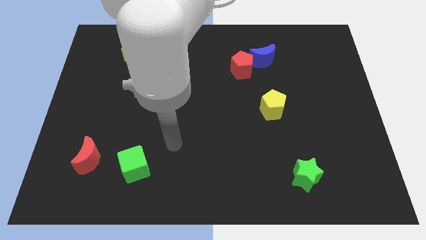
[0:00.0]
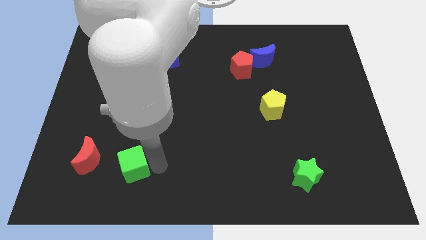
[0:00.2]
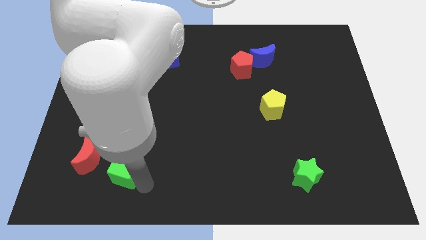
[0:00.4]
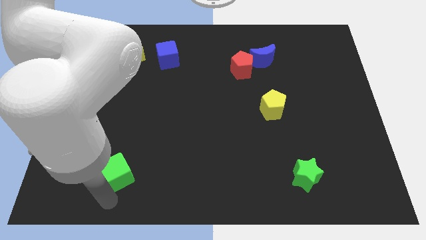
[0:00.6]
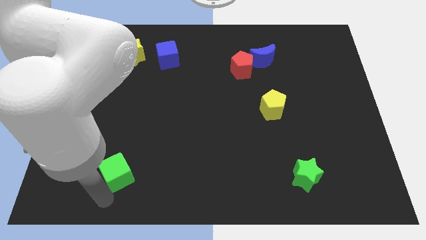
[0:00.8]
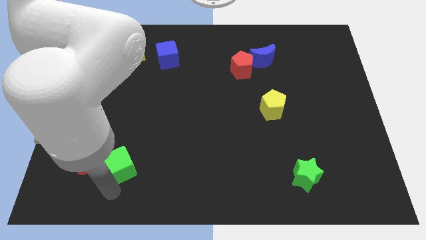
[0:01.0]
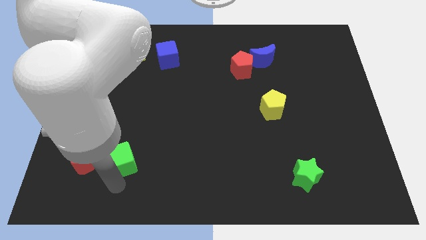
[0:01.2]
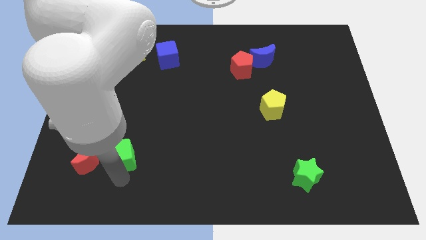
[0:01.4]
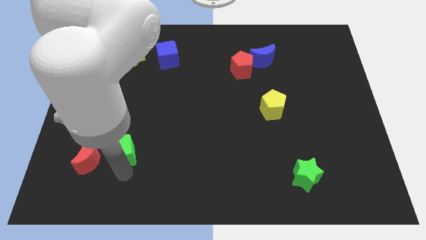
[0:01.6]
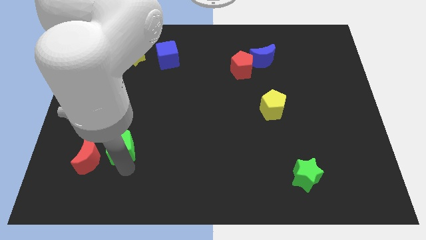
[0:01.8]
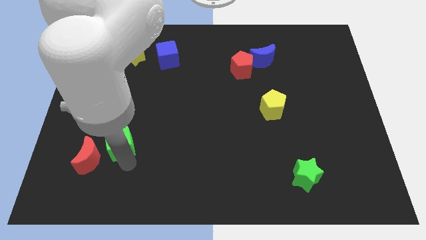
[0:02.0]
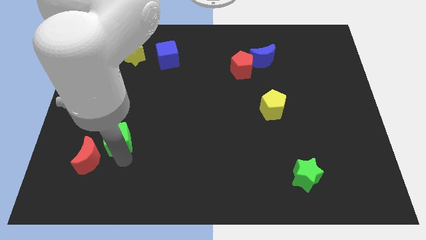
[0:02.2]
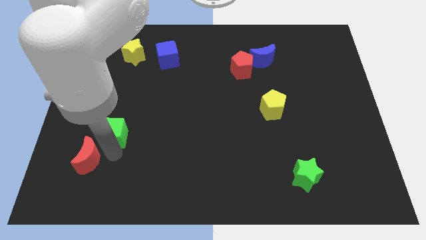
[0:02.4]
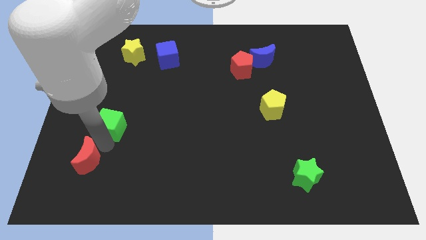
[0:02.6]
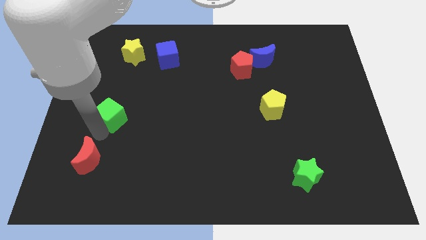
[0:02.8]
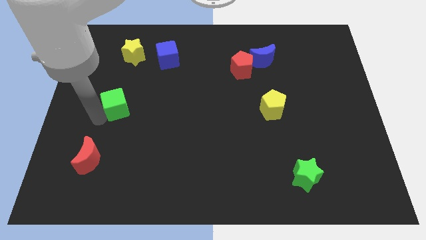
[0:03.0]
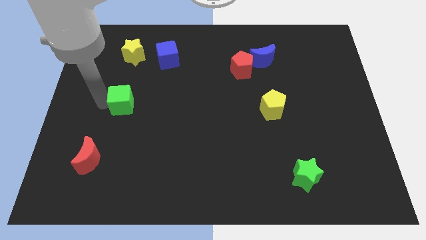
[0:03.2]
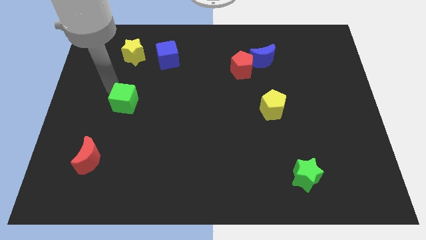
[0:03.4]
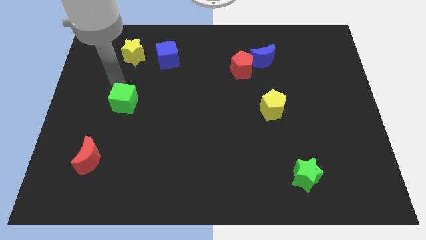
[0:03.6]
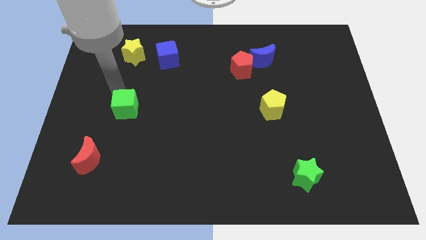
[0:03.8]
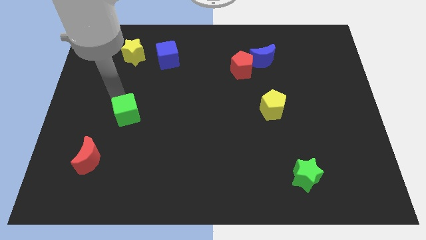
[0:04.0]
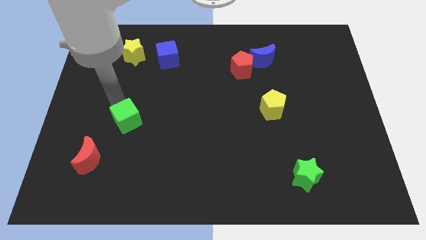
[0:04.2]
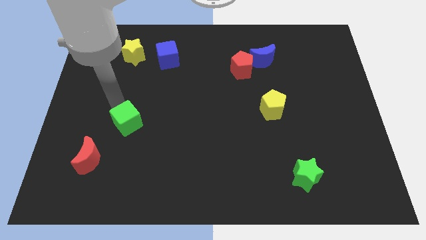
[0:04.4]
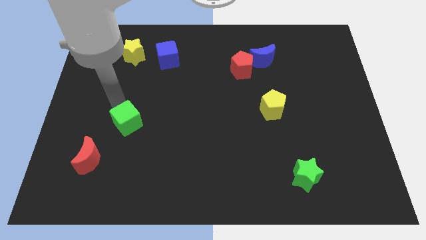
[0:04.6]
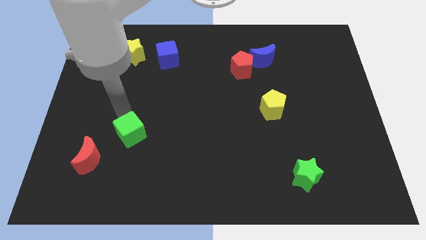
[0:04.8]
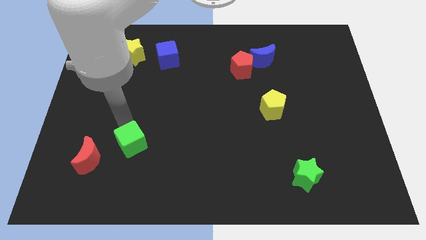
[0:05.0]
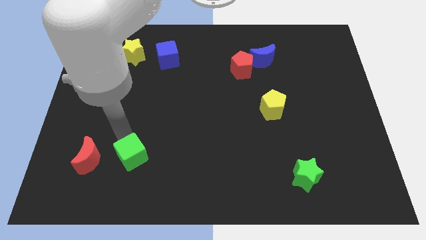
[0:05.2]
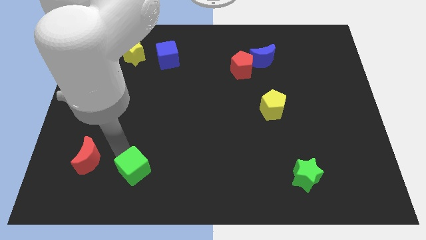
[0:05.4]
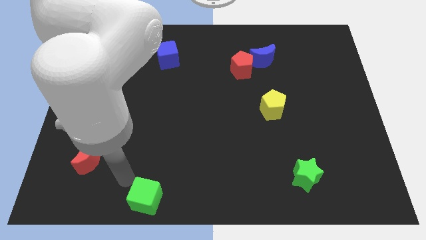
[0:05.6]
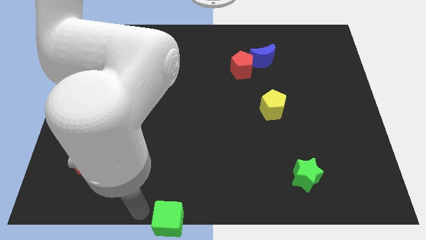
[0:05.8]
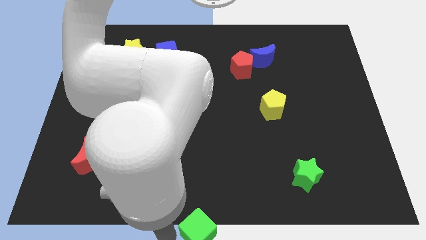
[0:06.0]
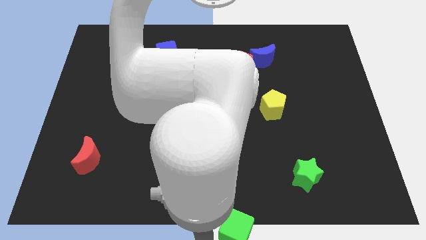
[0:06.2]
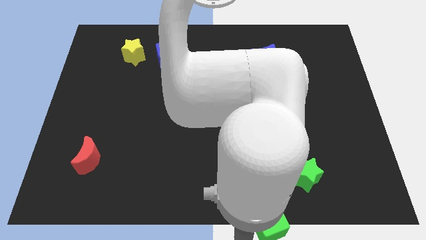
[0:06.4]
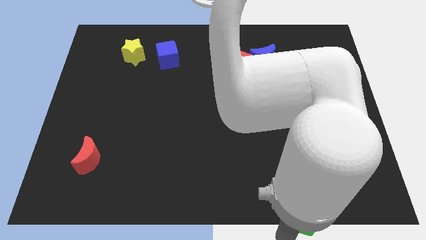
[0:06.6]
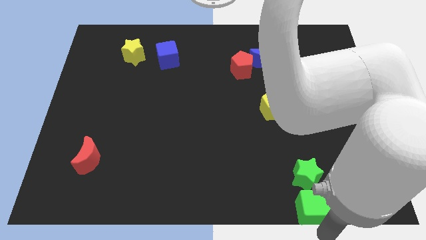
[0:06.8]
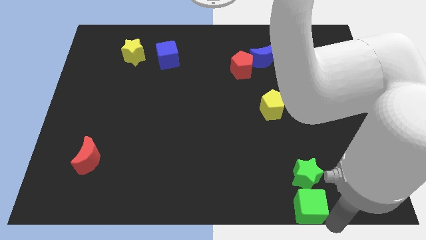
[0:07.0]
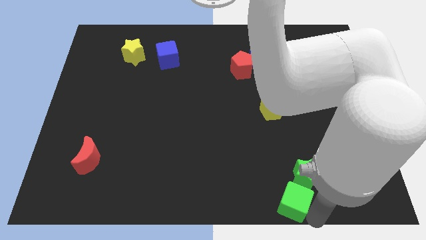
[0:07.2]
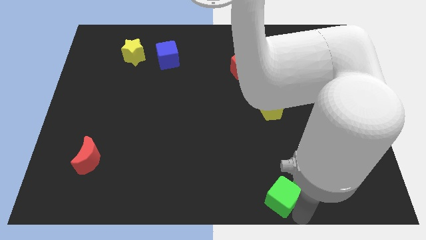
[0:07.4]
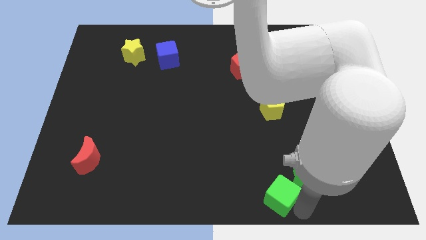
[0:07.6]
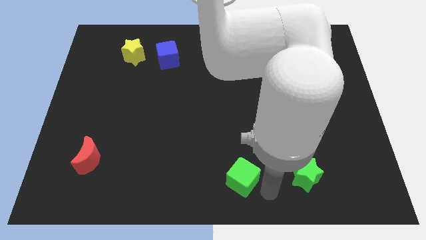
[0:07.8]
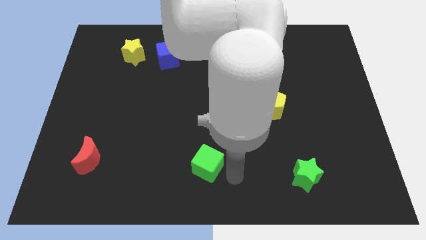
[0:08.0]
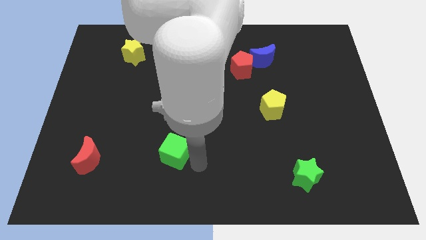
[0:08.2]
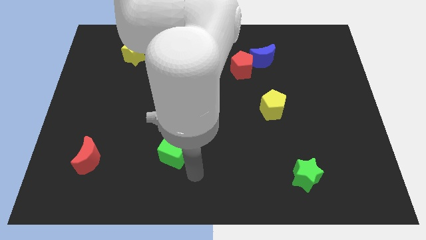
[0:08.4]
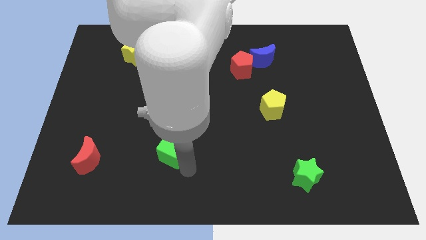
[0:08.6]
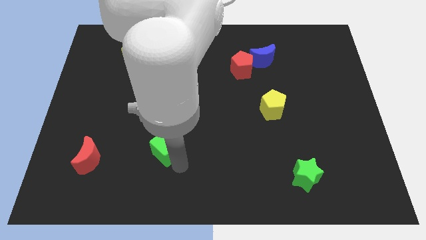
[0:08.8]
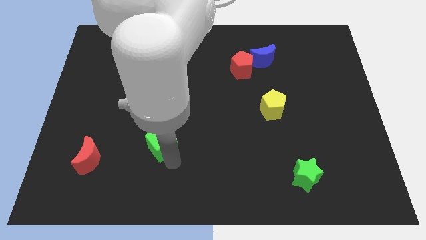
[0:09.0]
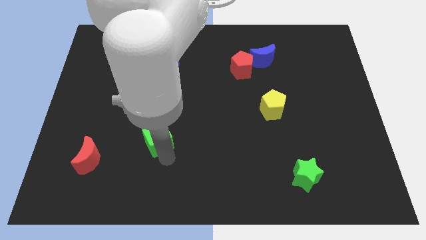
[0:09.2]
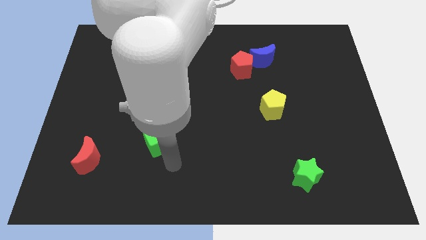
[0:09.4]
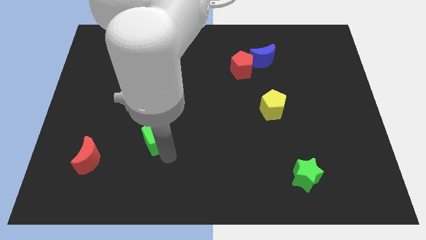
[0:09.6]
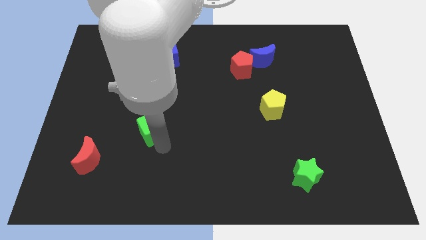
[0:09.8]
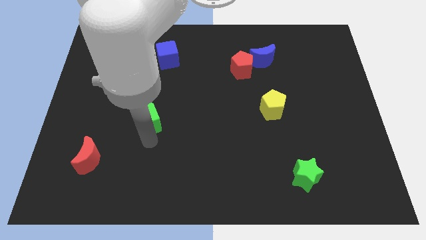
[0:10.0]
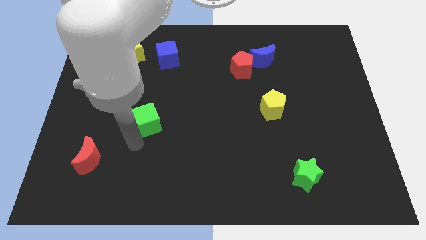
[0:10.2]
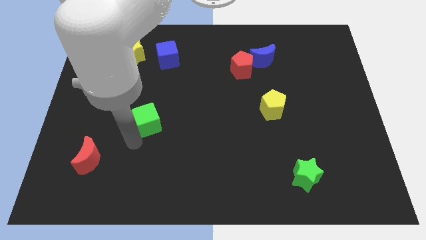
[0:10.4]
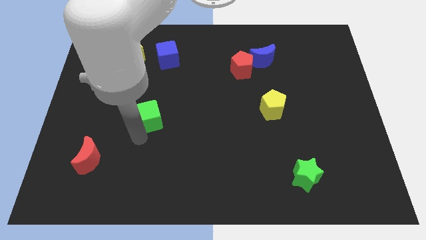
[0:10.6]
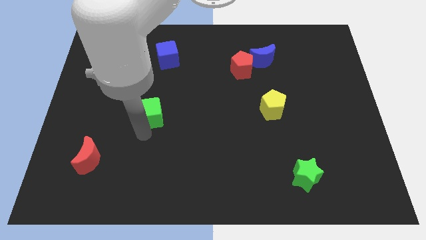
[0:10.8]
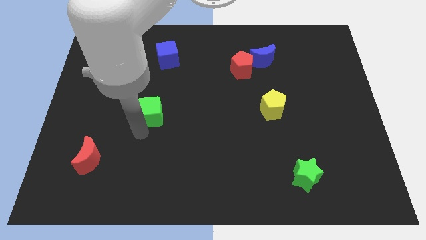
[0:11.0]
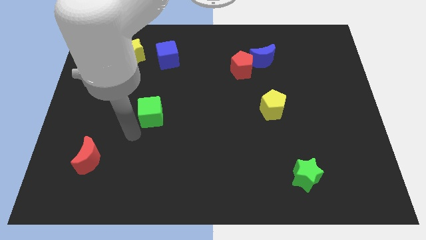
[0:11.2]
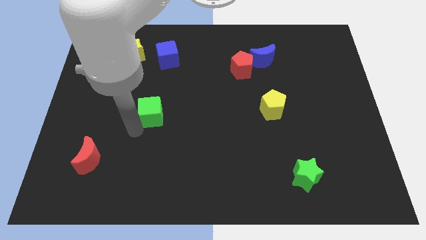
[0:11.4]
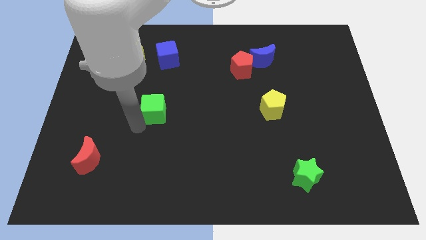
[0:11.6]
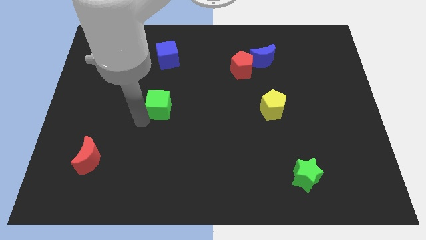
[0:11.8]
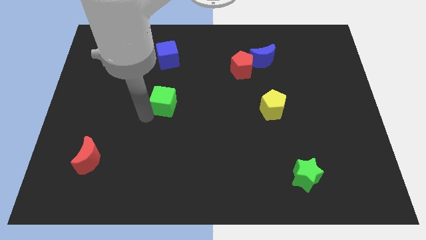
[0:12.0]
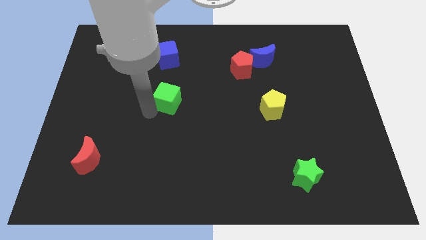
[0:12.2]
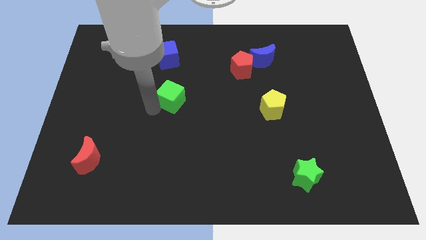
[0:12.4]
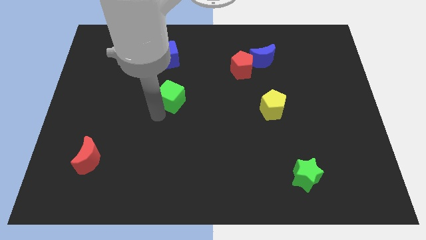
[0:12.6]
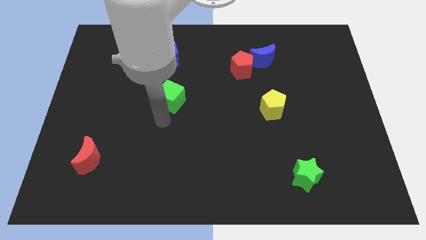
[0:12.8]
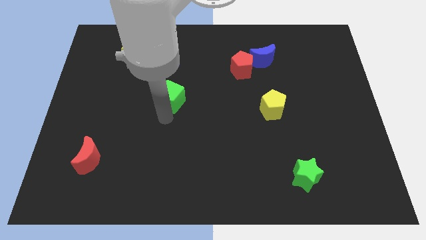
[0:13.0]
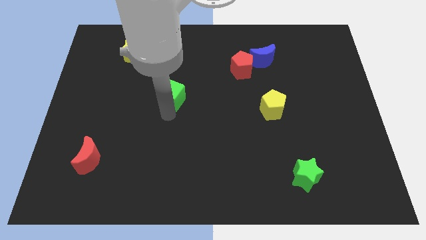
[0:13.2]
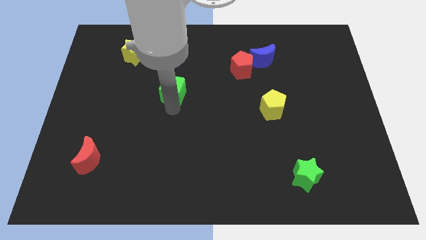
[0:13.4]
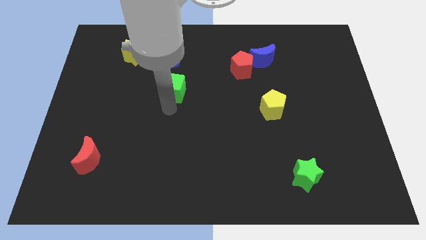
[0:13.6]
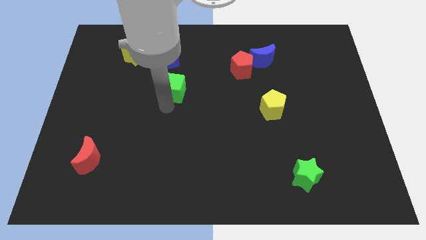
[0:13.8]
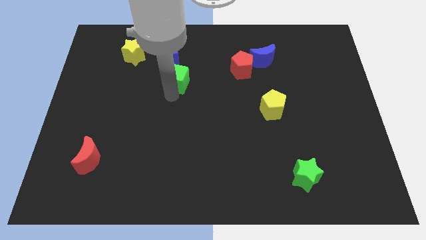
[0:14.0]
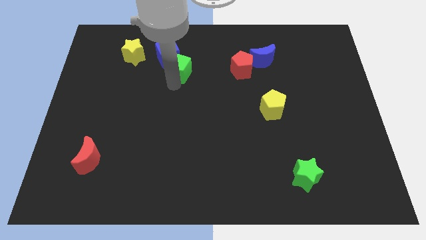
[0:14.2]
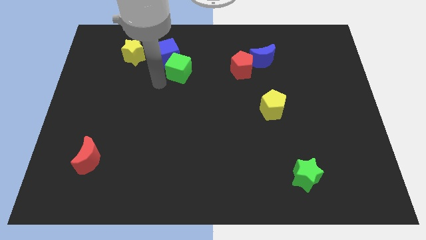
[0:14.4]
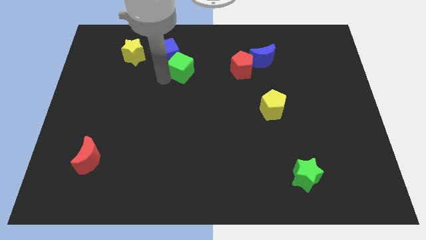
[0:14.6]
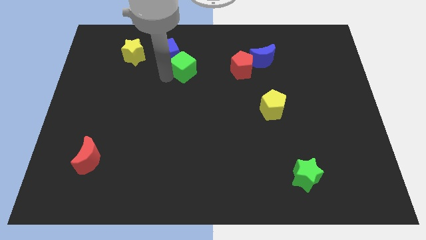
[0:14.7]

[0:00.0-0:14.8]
slide the green cube to the right side of the blue cube

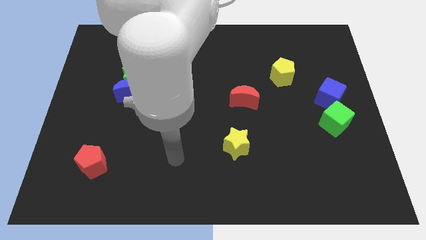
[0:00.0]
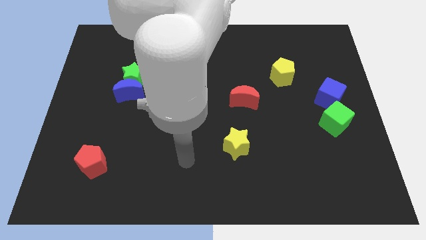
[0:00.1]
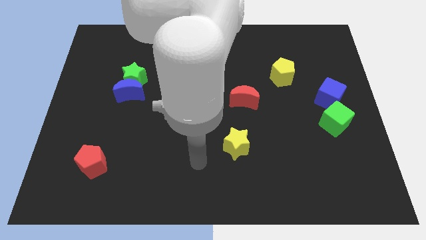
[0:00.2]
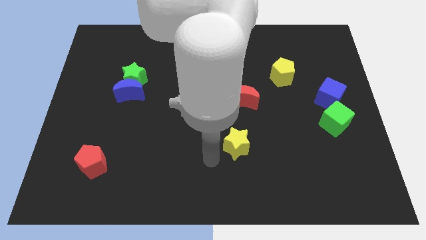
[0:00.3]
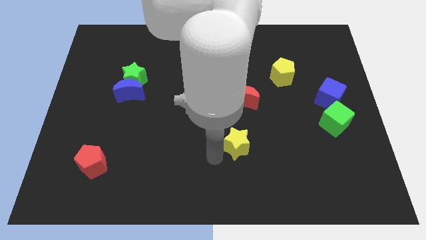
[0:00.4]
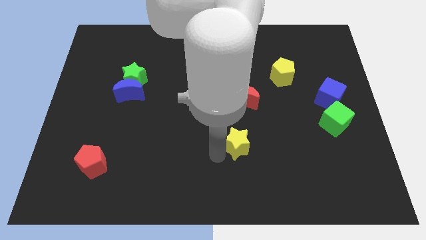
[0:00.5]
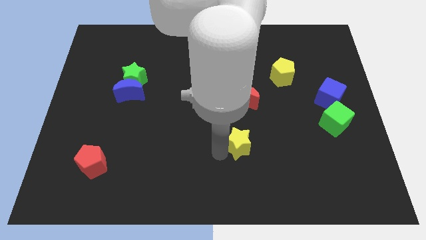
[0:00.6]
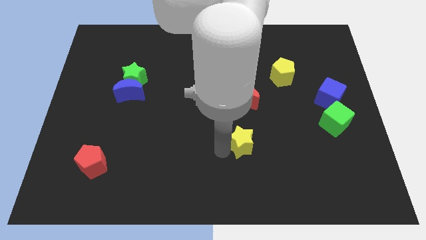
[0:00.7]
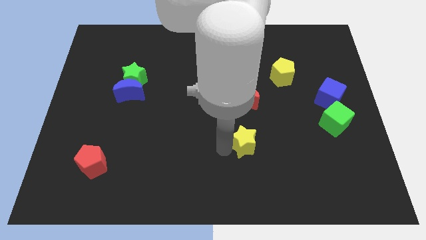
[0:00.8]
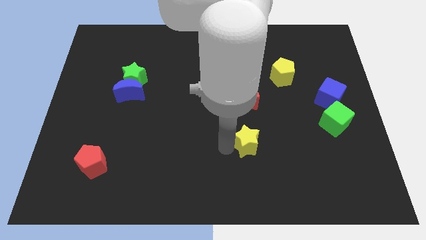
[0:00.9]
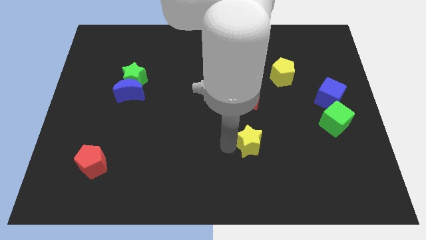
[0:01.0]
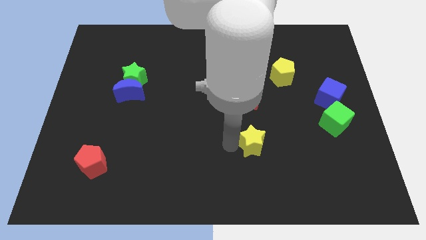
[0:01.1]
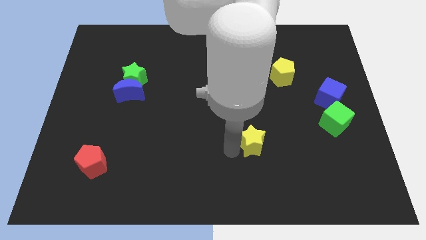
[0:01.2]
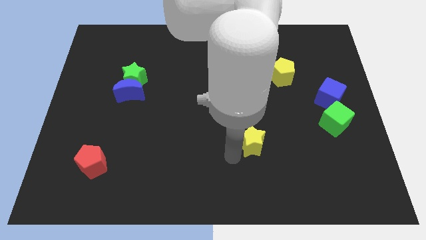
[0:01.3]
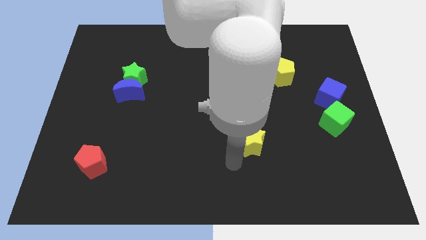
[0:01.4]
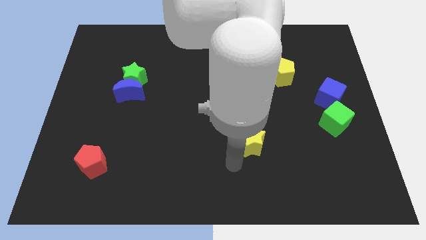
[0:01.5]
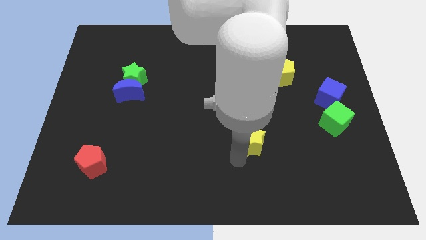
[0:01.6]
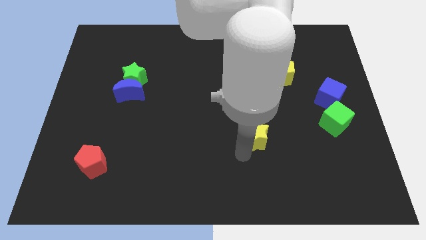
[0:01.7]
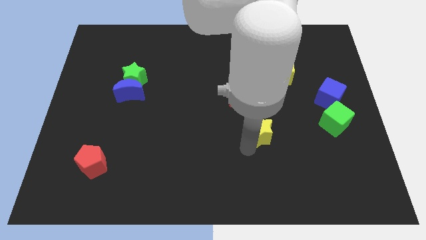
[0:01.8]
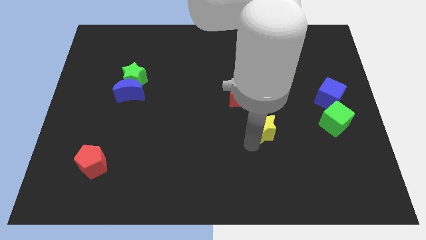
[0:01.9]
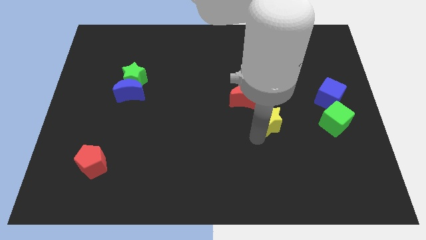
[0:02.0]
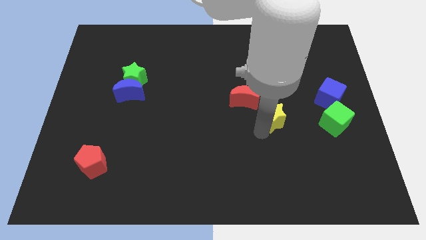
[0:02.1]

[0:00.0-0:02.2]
move the yellow star to the bottom side of the yellow pentagon
